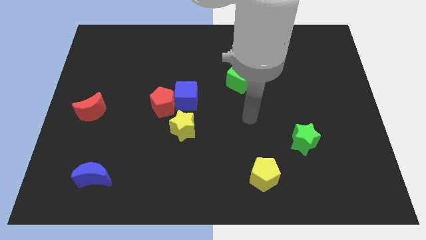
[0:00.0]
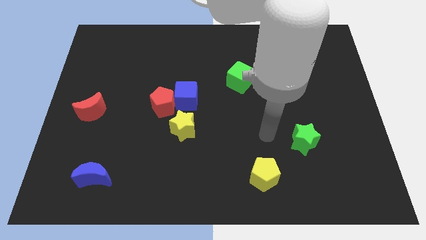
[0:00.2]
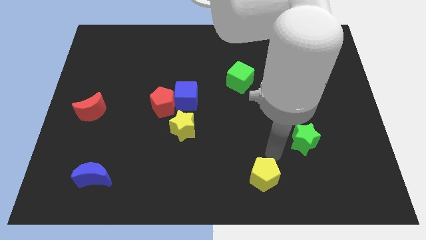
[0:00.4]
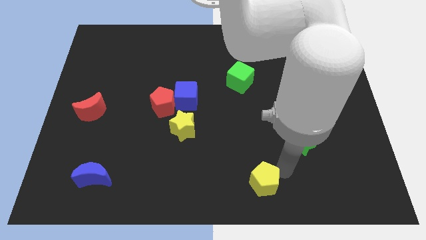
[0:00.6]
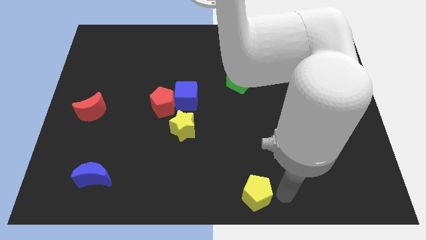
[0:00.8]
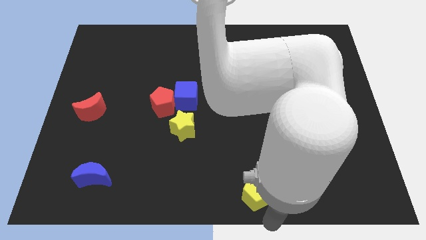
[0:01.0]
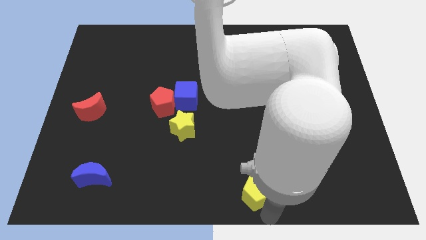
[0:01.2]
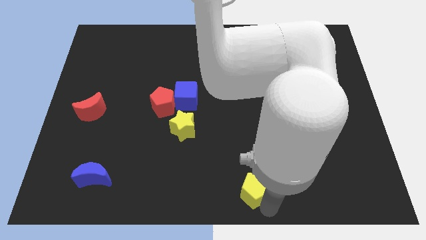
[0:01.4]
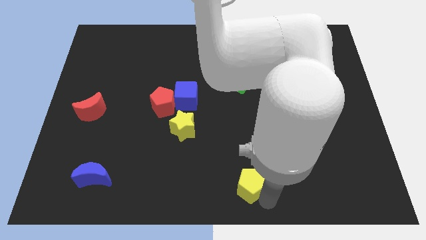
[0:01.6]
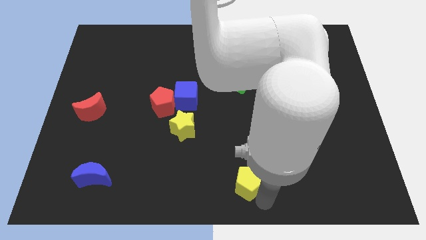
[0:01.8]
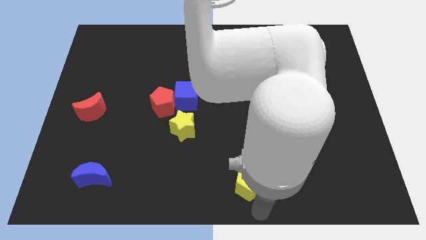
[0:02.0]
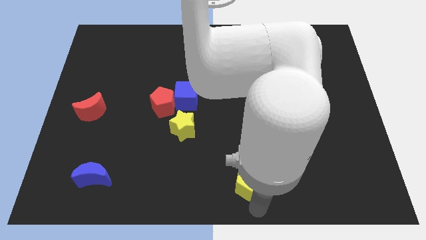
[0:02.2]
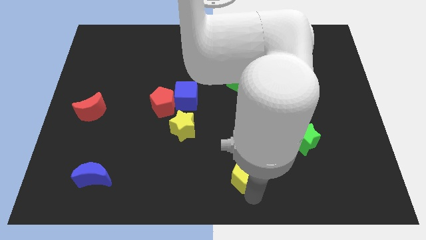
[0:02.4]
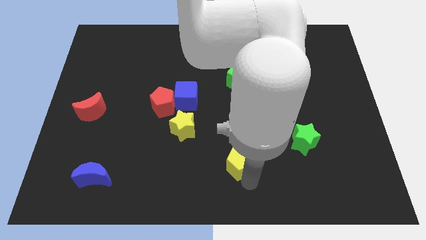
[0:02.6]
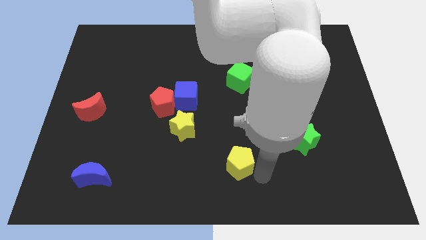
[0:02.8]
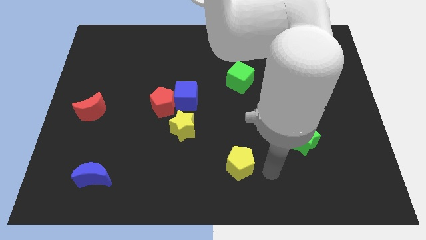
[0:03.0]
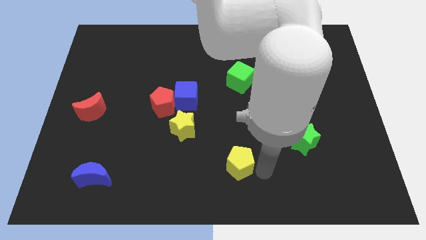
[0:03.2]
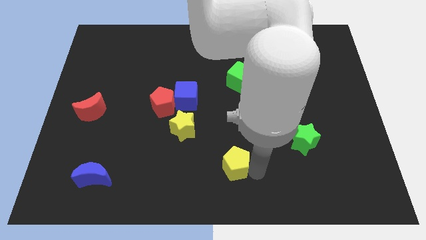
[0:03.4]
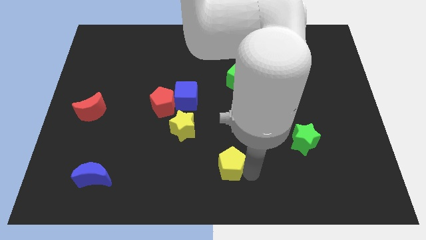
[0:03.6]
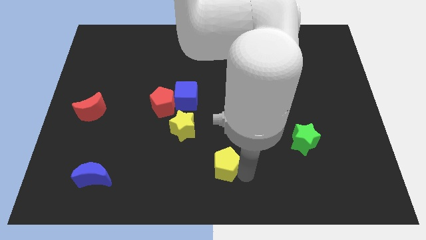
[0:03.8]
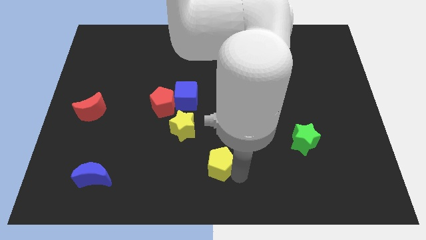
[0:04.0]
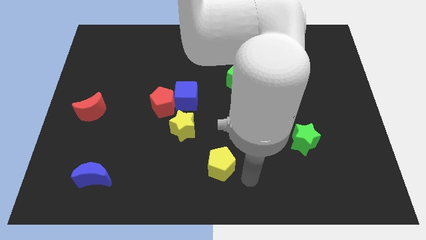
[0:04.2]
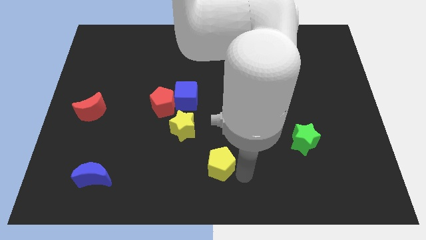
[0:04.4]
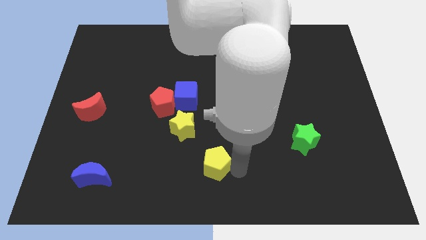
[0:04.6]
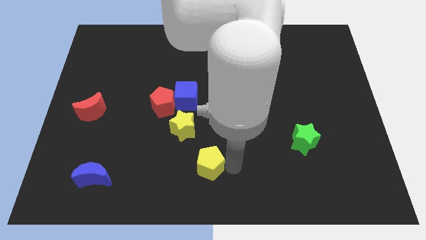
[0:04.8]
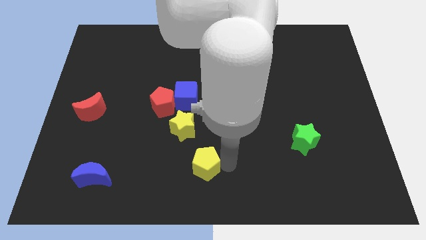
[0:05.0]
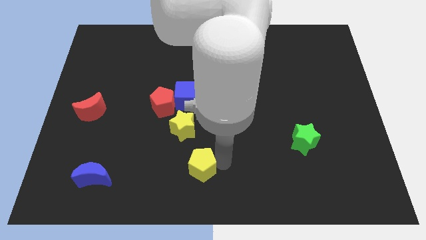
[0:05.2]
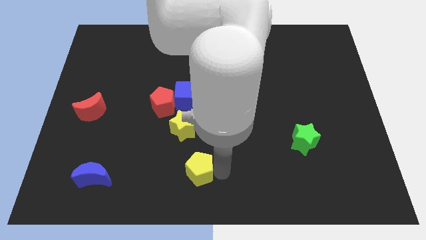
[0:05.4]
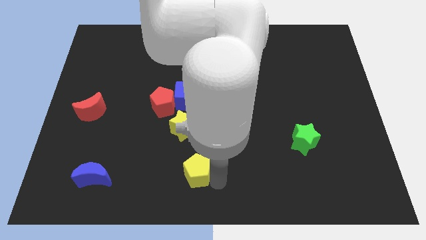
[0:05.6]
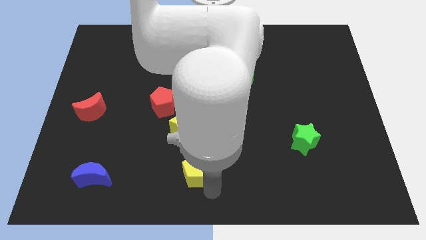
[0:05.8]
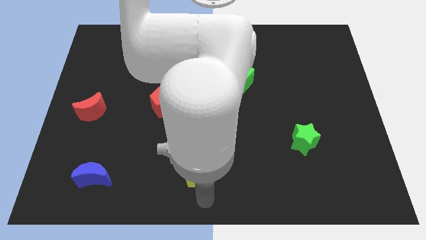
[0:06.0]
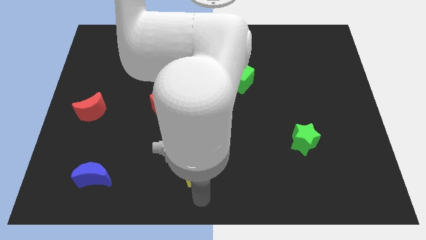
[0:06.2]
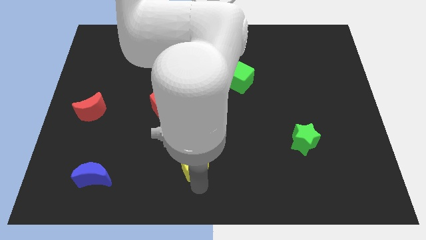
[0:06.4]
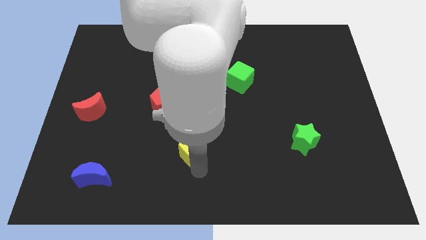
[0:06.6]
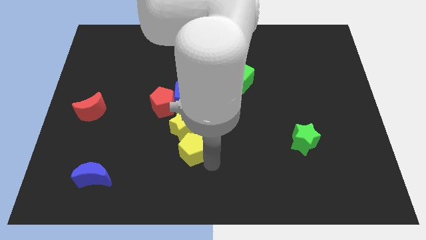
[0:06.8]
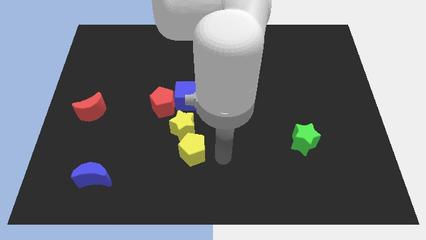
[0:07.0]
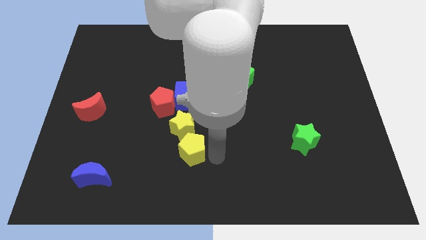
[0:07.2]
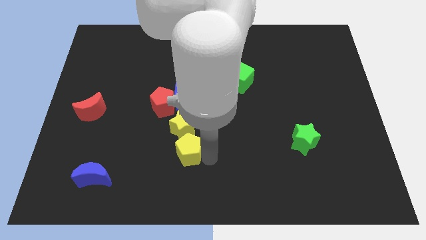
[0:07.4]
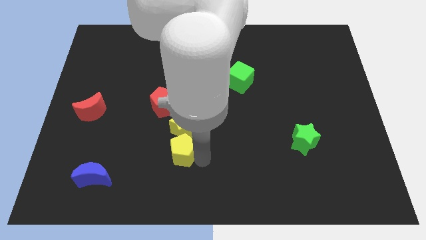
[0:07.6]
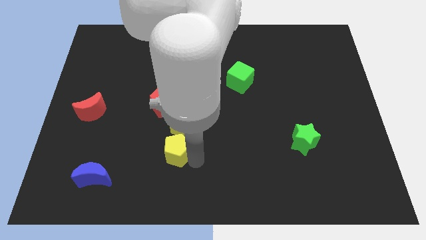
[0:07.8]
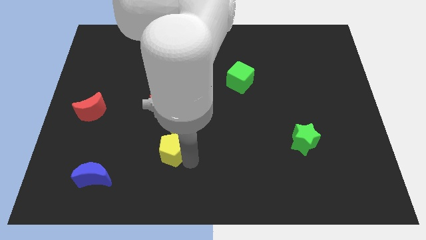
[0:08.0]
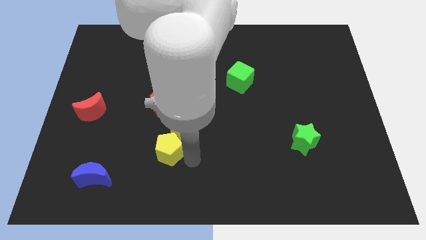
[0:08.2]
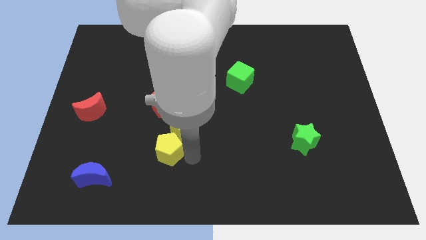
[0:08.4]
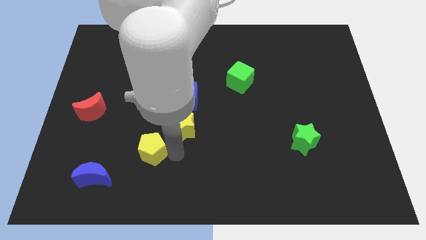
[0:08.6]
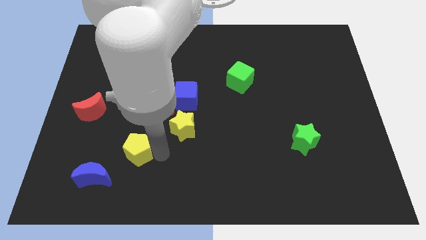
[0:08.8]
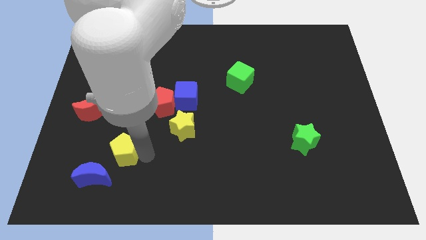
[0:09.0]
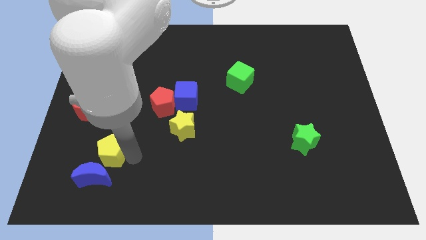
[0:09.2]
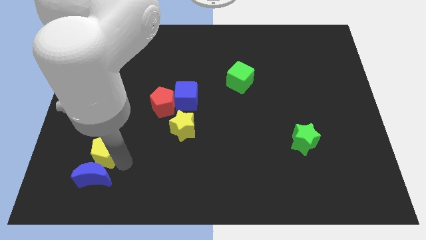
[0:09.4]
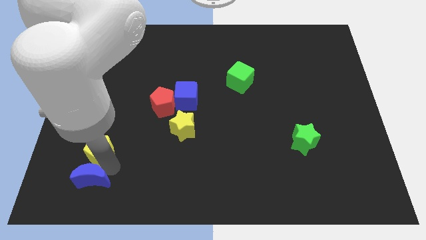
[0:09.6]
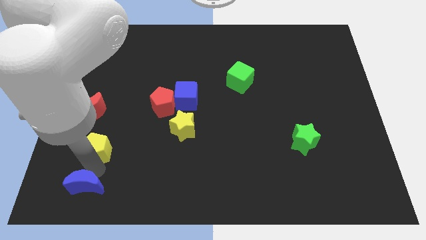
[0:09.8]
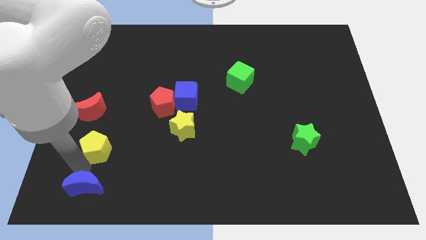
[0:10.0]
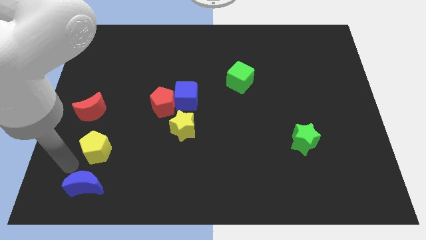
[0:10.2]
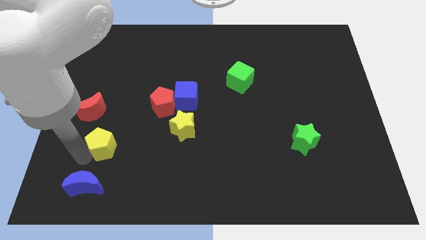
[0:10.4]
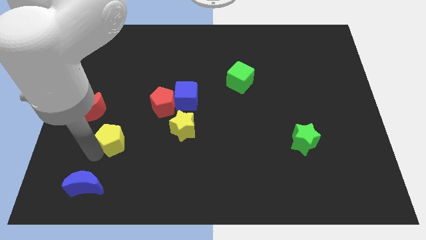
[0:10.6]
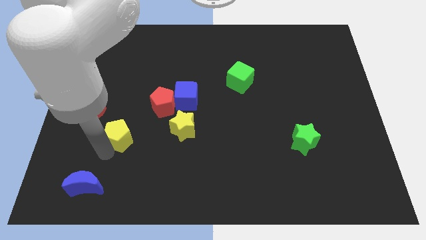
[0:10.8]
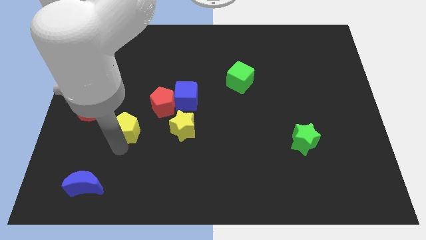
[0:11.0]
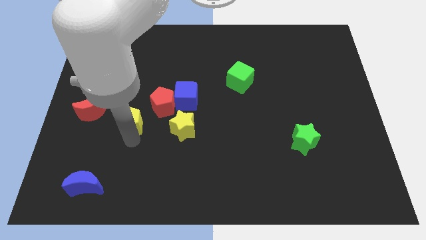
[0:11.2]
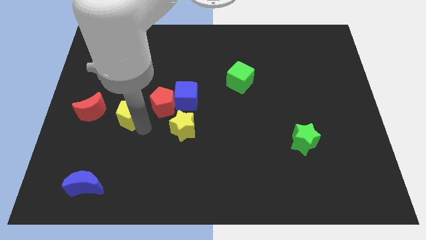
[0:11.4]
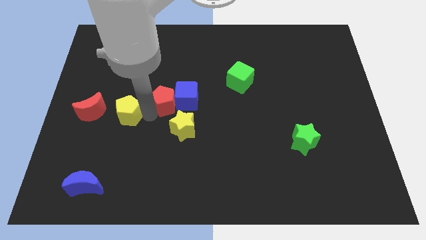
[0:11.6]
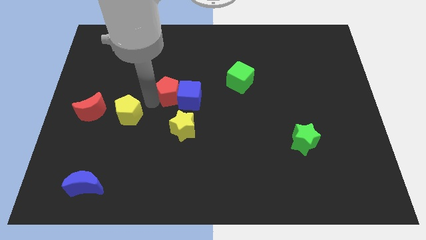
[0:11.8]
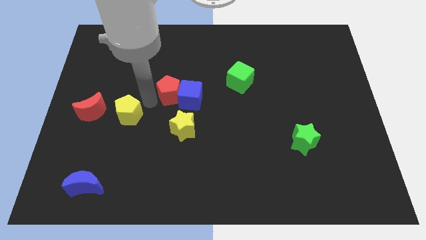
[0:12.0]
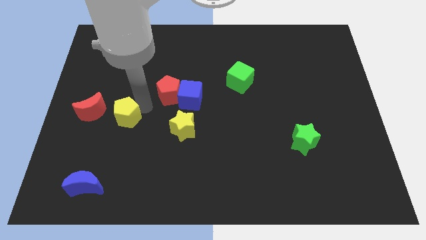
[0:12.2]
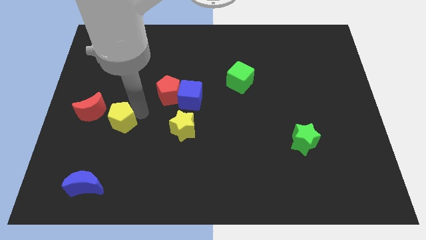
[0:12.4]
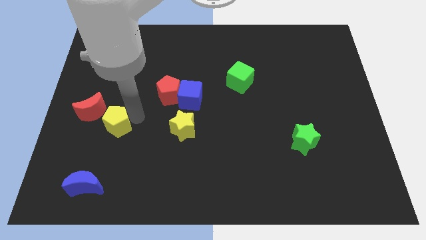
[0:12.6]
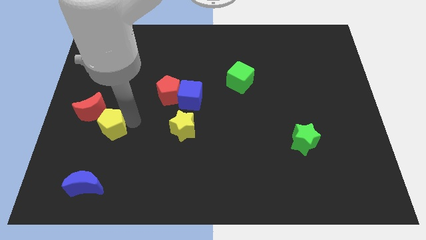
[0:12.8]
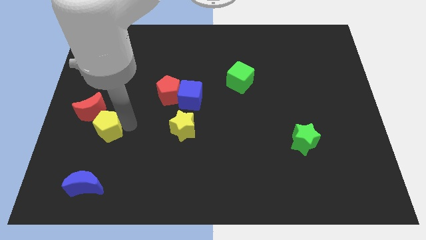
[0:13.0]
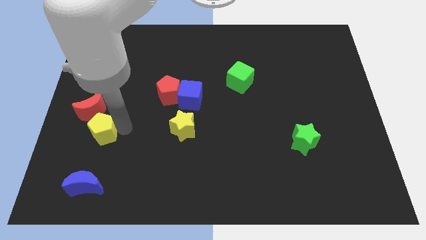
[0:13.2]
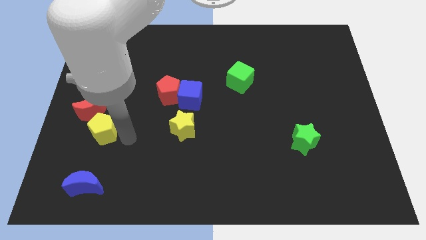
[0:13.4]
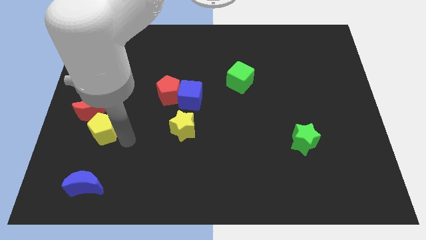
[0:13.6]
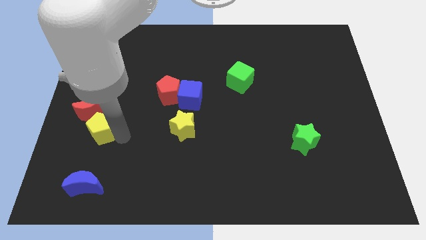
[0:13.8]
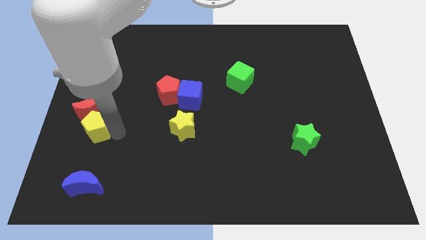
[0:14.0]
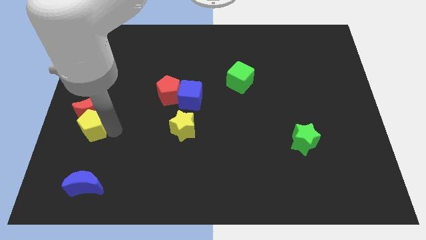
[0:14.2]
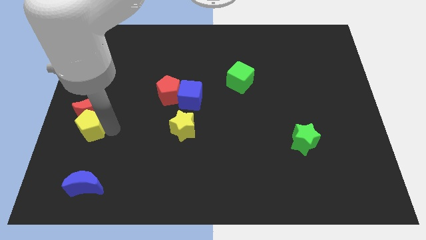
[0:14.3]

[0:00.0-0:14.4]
push the yellow pentagon to the left side
